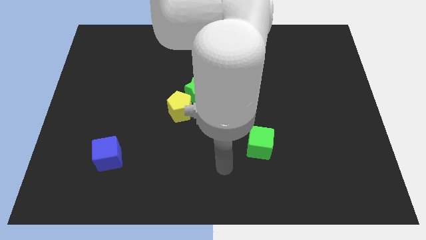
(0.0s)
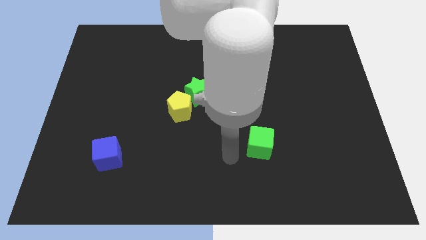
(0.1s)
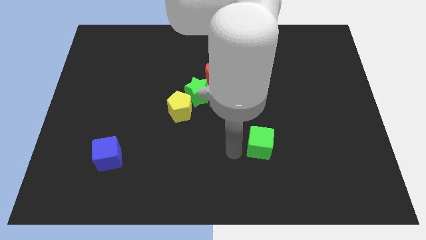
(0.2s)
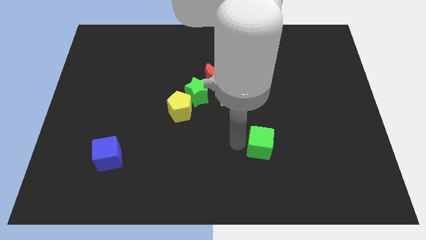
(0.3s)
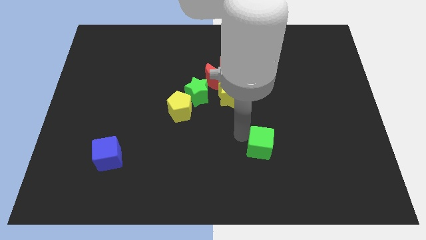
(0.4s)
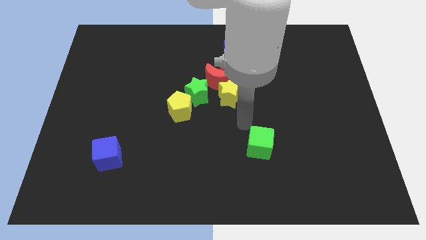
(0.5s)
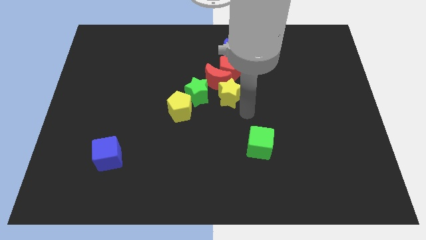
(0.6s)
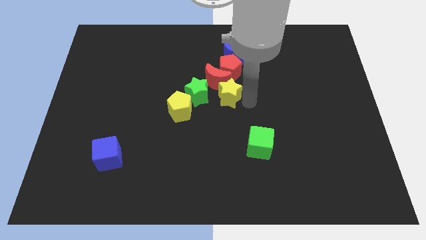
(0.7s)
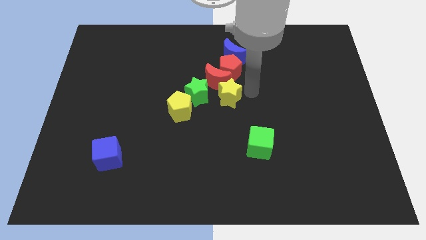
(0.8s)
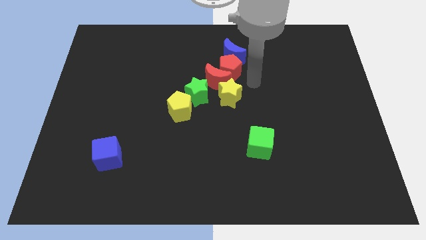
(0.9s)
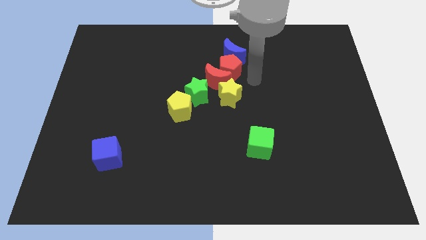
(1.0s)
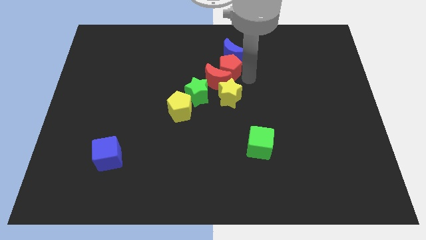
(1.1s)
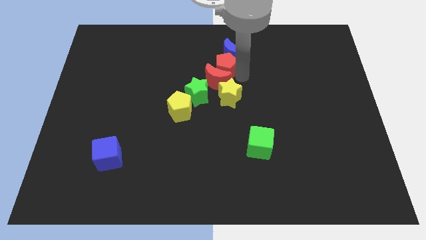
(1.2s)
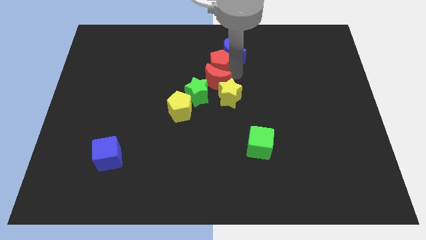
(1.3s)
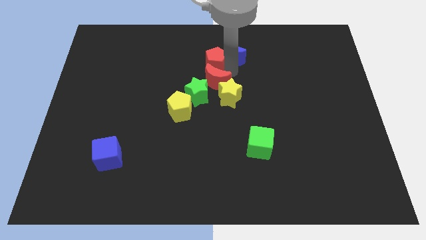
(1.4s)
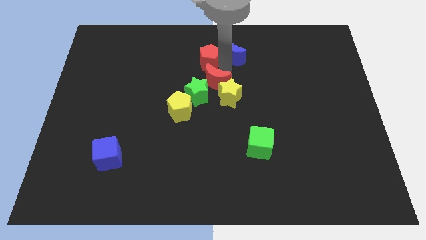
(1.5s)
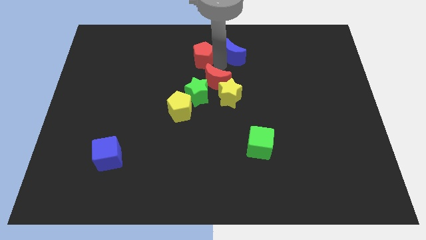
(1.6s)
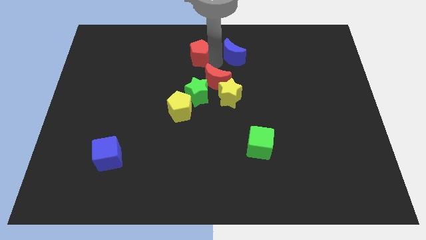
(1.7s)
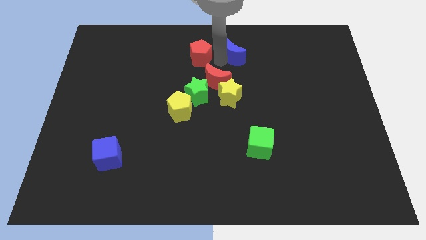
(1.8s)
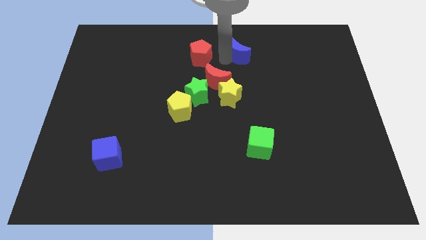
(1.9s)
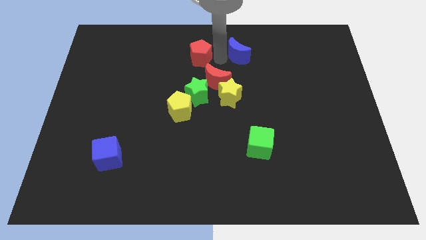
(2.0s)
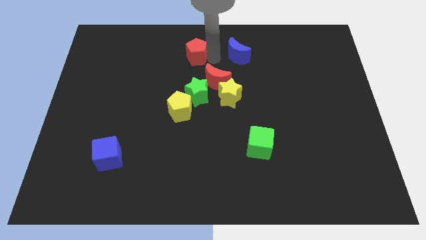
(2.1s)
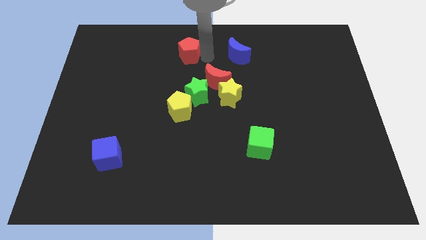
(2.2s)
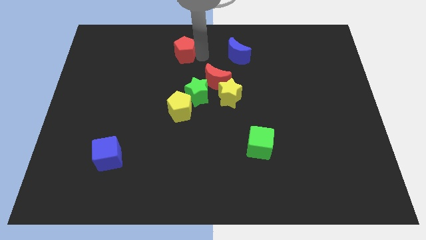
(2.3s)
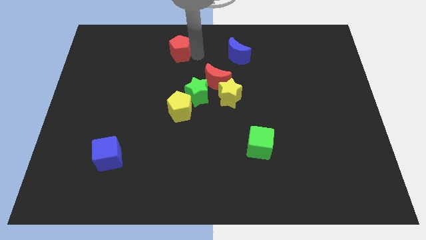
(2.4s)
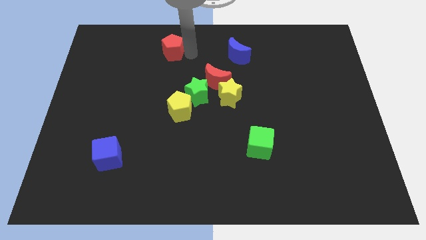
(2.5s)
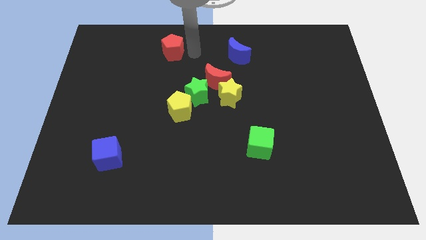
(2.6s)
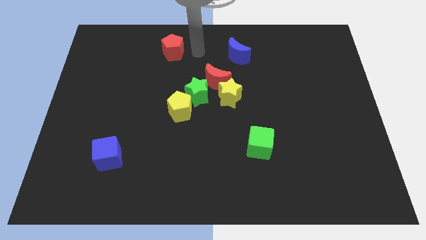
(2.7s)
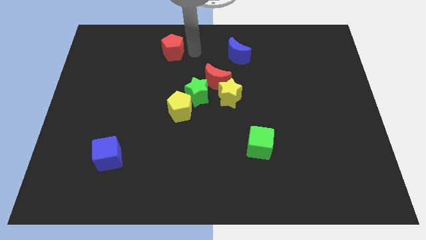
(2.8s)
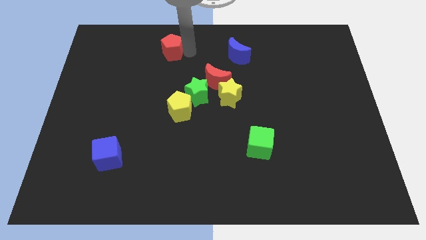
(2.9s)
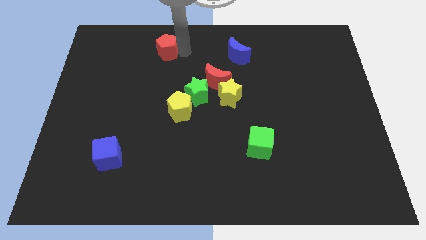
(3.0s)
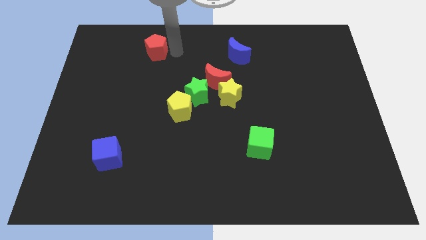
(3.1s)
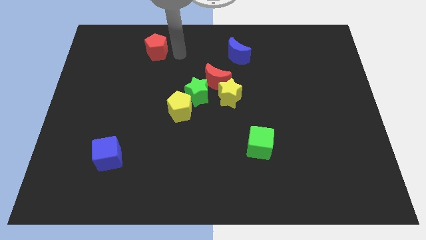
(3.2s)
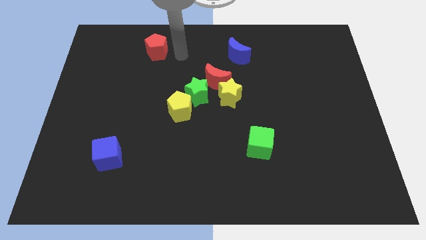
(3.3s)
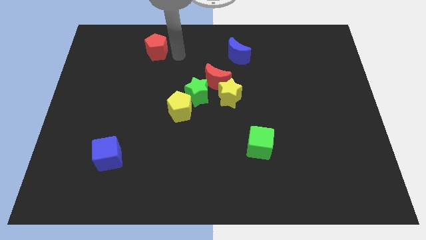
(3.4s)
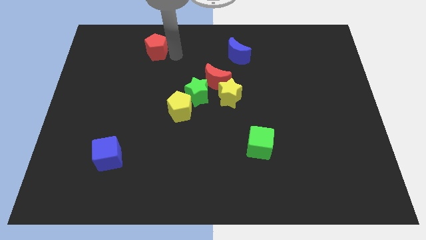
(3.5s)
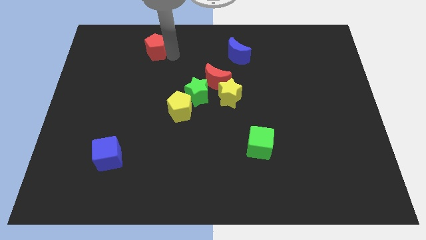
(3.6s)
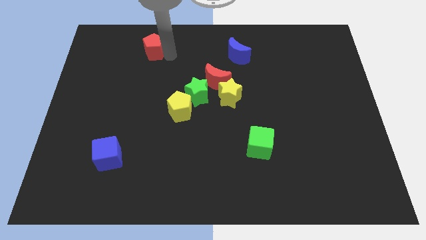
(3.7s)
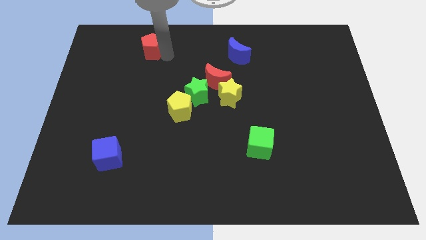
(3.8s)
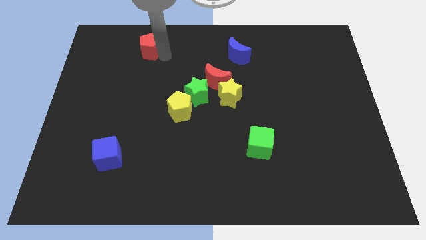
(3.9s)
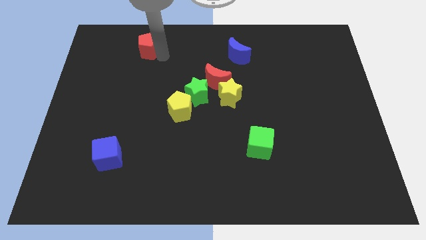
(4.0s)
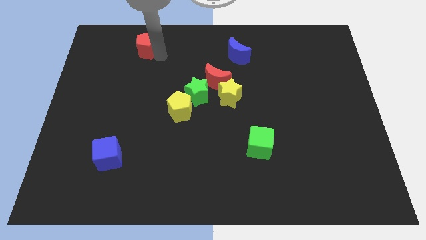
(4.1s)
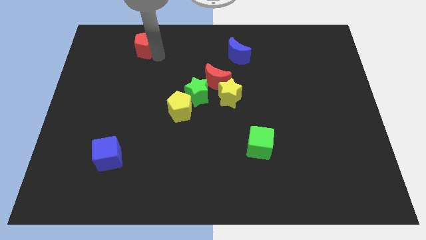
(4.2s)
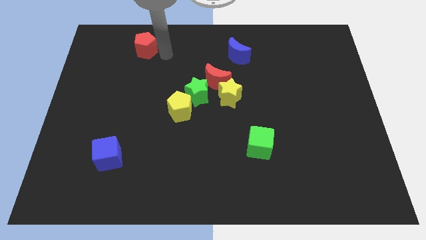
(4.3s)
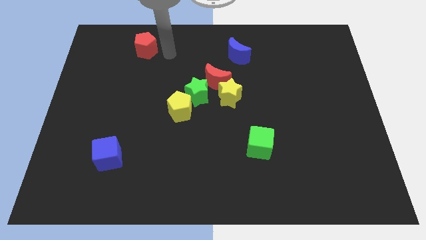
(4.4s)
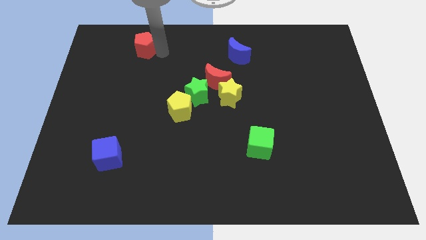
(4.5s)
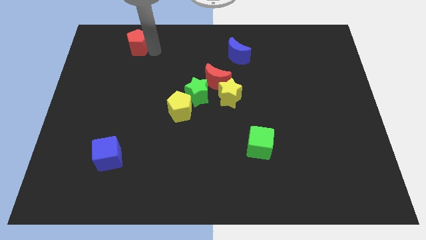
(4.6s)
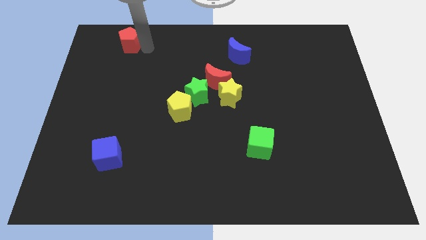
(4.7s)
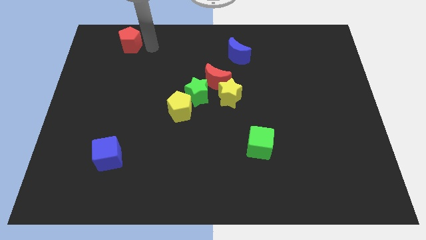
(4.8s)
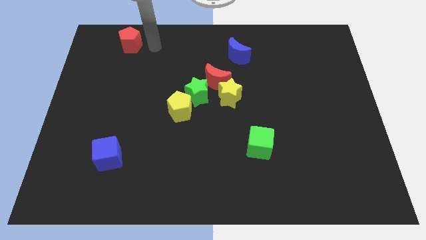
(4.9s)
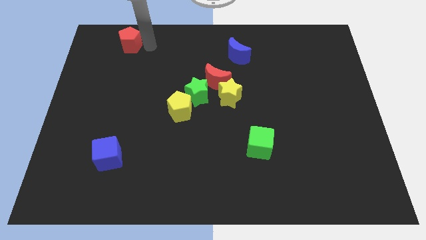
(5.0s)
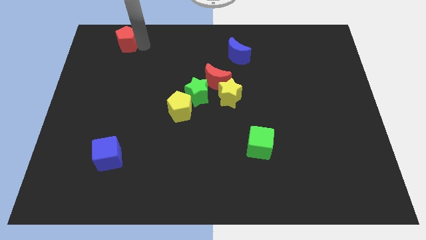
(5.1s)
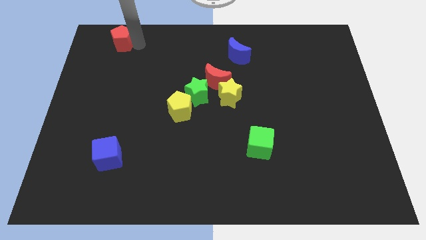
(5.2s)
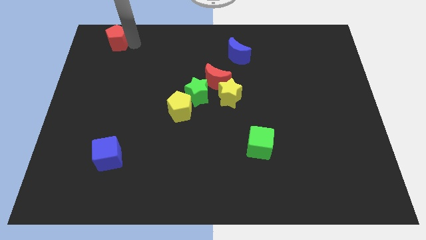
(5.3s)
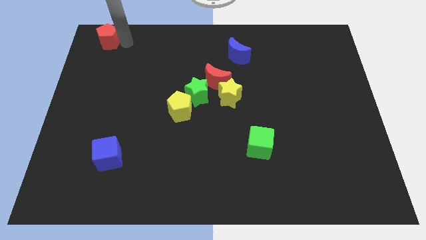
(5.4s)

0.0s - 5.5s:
push the red pentagon to the top left of the board
